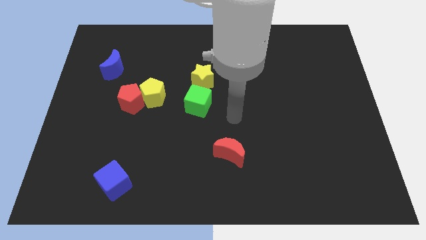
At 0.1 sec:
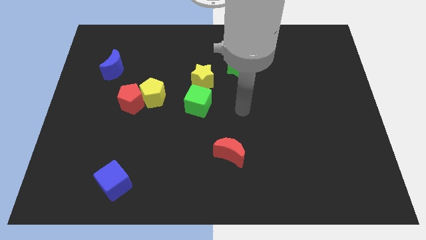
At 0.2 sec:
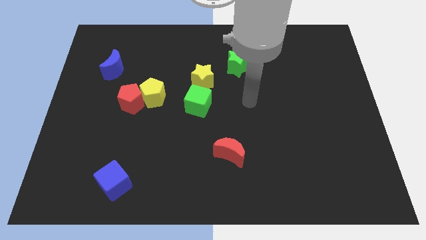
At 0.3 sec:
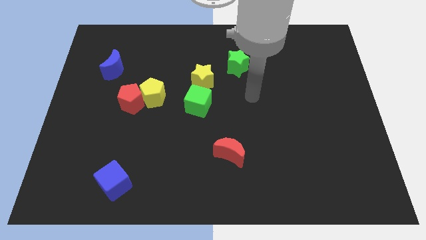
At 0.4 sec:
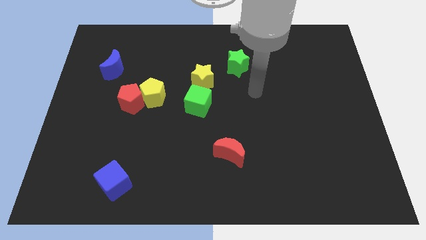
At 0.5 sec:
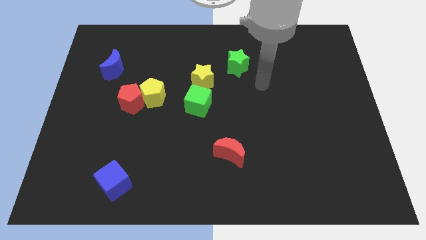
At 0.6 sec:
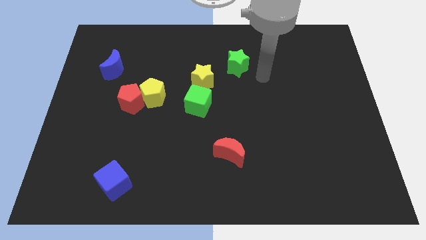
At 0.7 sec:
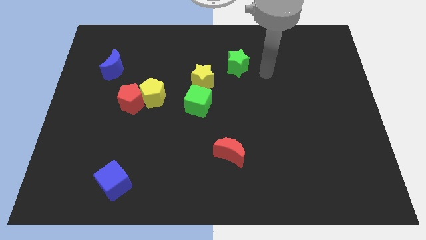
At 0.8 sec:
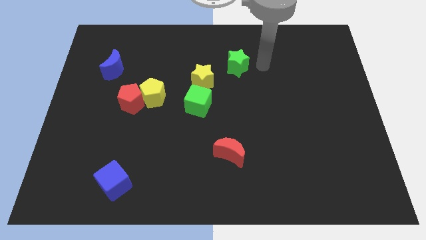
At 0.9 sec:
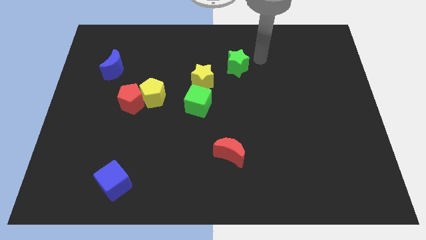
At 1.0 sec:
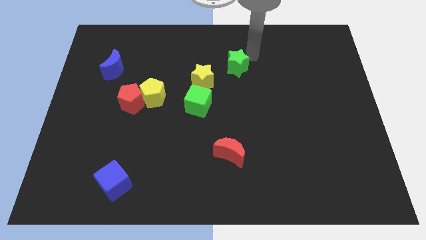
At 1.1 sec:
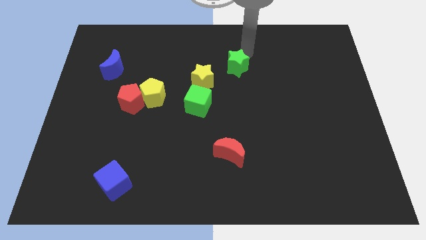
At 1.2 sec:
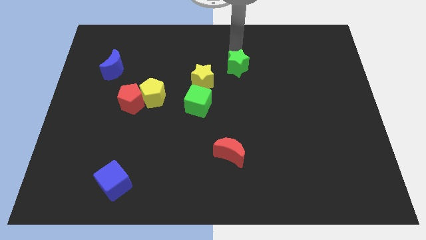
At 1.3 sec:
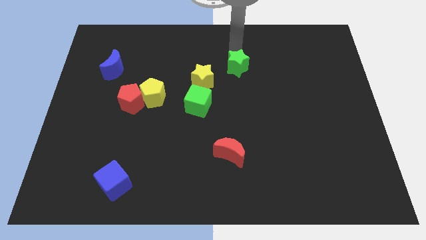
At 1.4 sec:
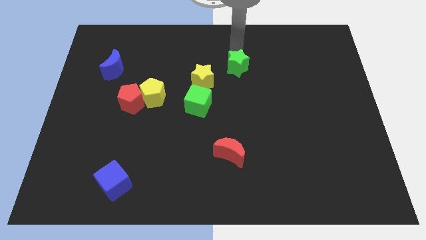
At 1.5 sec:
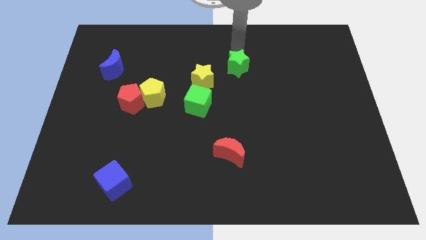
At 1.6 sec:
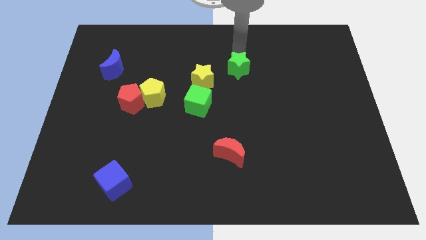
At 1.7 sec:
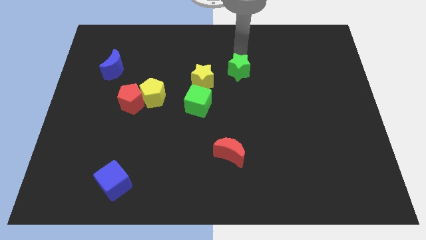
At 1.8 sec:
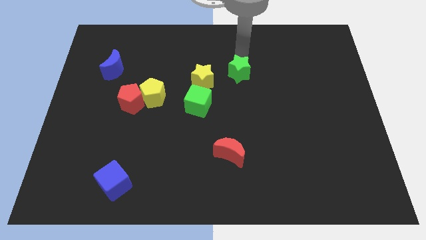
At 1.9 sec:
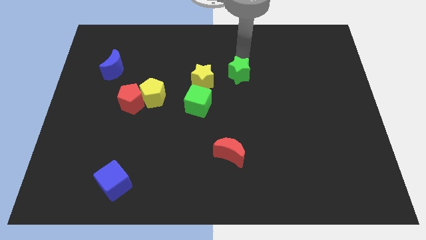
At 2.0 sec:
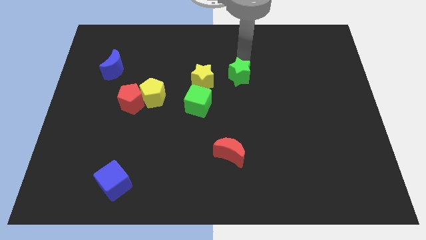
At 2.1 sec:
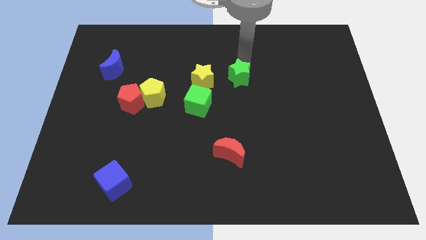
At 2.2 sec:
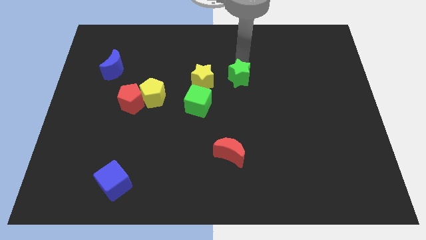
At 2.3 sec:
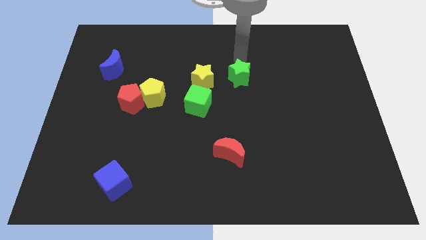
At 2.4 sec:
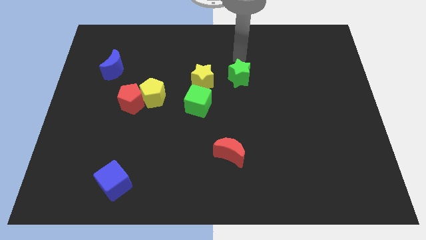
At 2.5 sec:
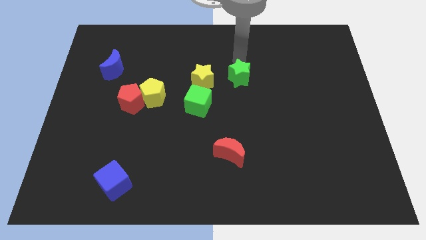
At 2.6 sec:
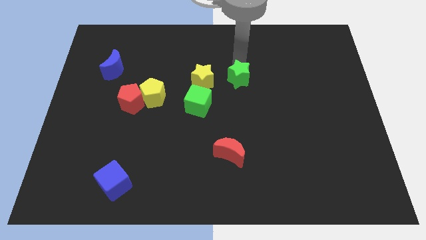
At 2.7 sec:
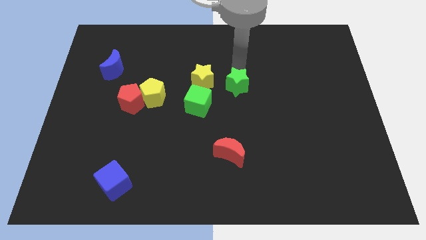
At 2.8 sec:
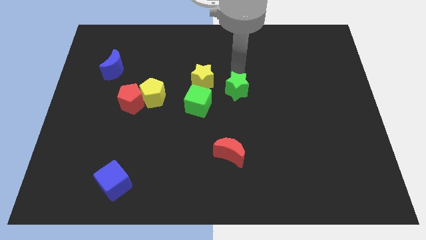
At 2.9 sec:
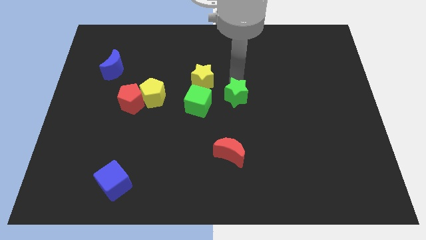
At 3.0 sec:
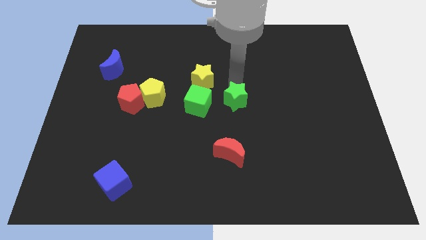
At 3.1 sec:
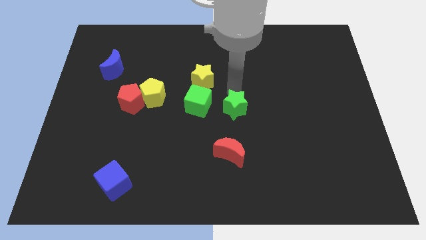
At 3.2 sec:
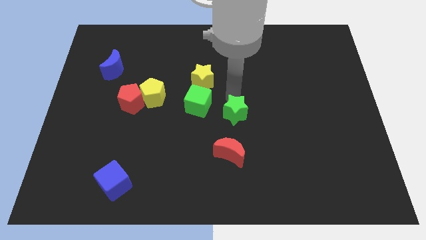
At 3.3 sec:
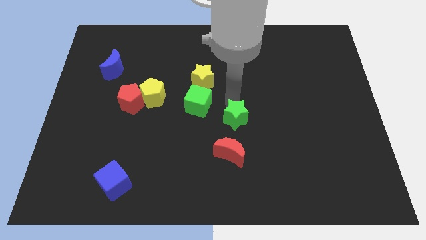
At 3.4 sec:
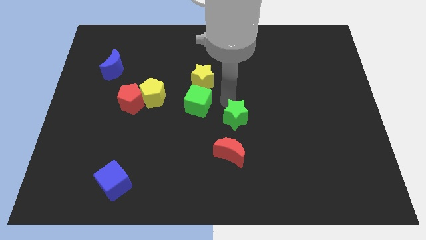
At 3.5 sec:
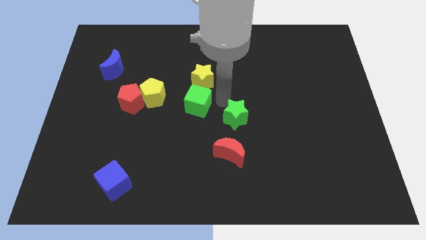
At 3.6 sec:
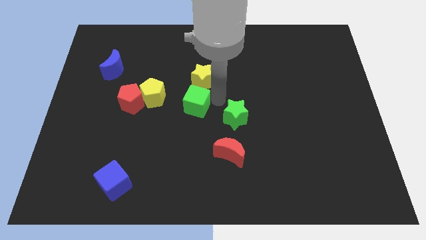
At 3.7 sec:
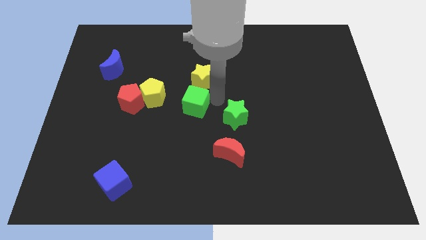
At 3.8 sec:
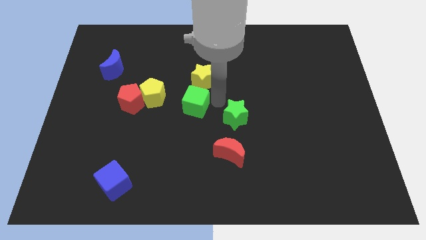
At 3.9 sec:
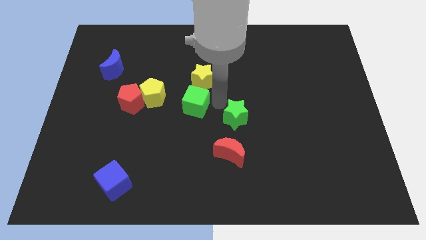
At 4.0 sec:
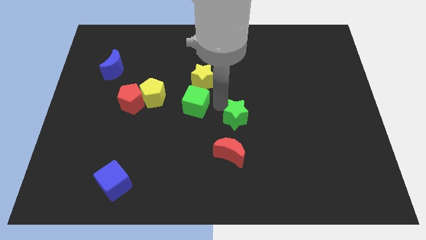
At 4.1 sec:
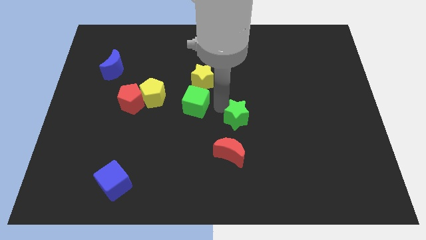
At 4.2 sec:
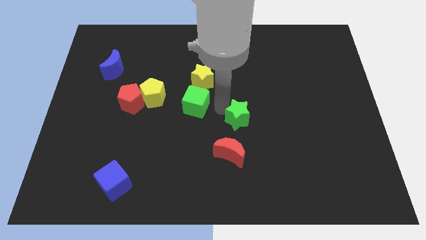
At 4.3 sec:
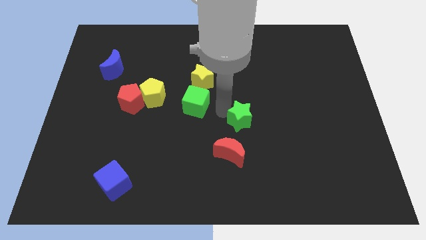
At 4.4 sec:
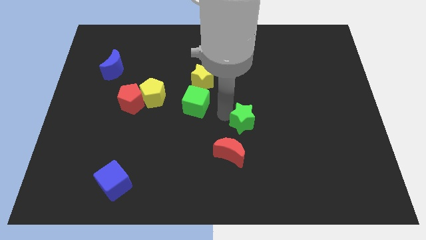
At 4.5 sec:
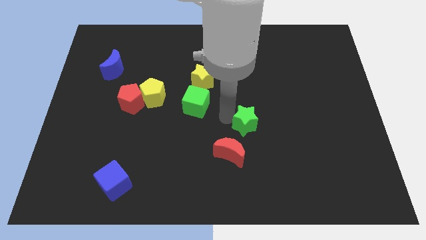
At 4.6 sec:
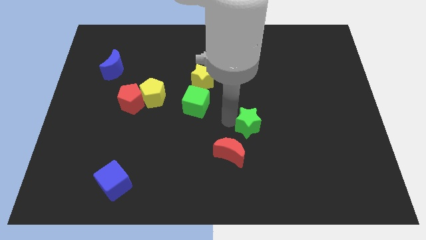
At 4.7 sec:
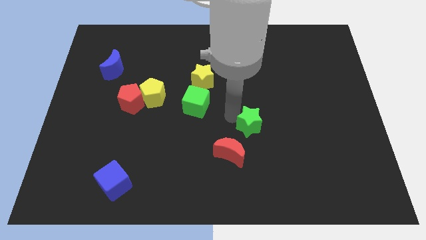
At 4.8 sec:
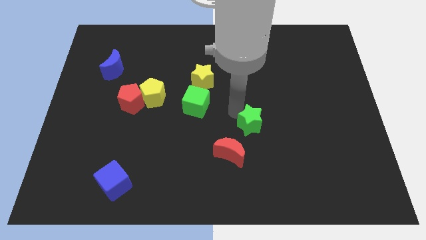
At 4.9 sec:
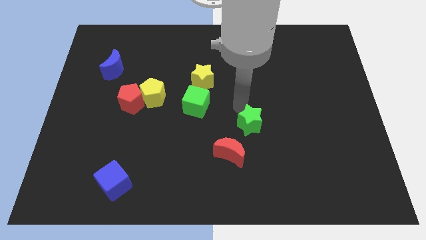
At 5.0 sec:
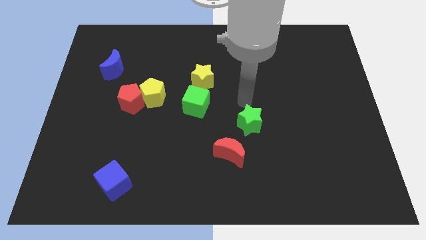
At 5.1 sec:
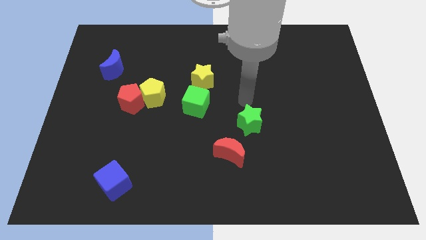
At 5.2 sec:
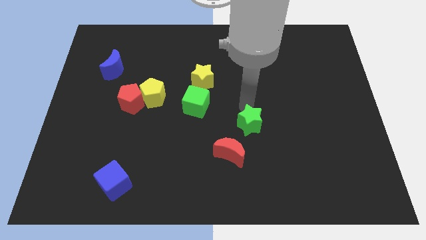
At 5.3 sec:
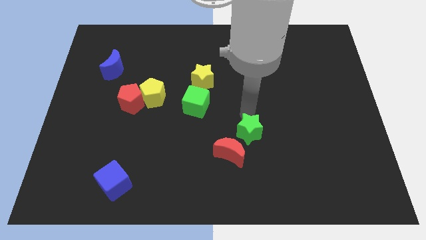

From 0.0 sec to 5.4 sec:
slide the green star down

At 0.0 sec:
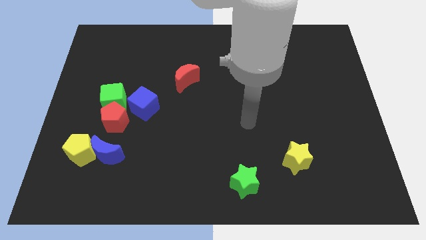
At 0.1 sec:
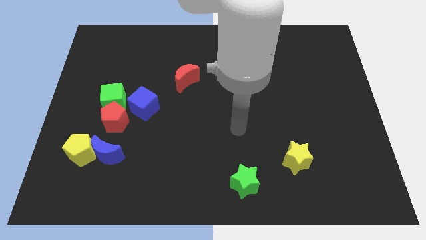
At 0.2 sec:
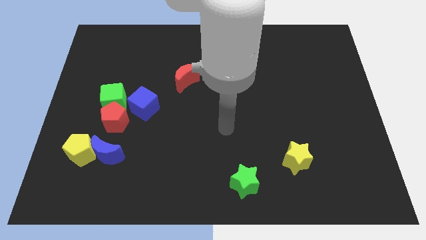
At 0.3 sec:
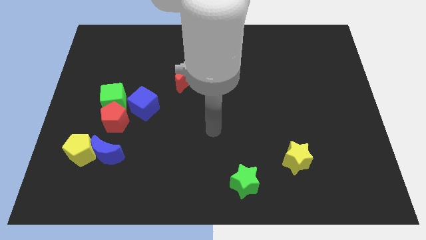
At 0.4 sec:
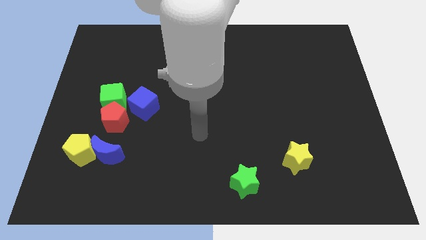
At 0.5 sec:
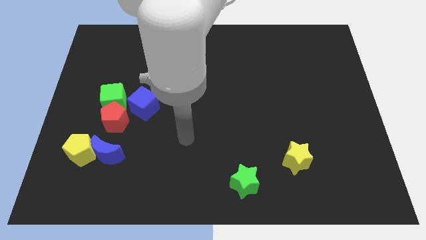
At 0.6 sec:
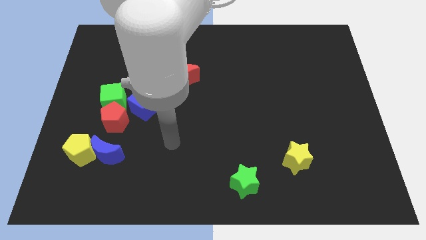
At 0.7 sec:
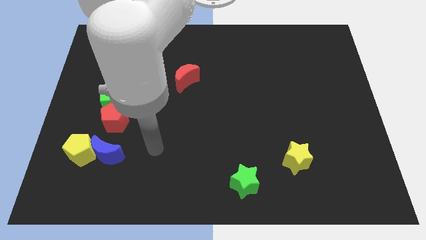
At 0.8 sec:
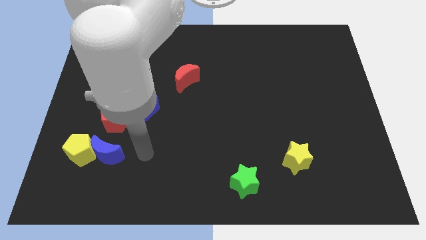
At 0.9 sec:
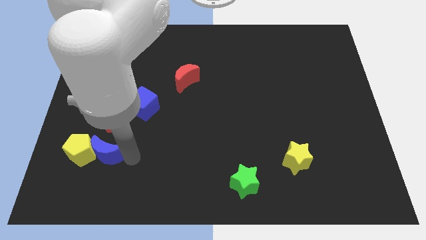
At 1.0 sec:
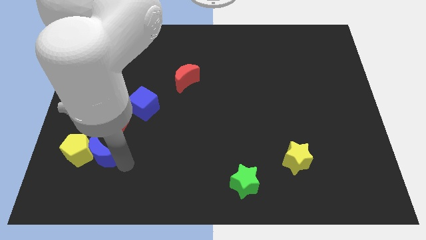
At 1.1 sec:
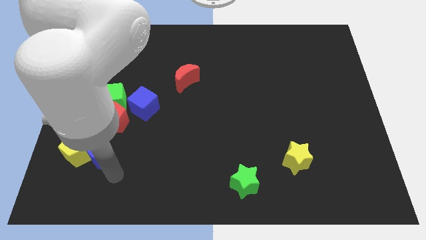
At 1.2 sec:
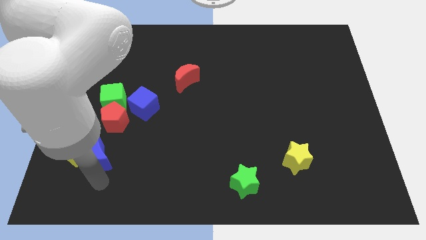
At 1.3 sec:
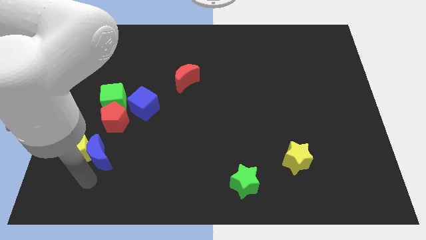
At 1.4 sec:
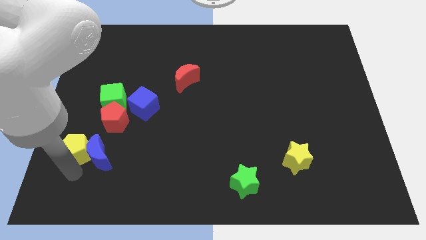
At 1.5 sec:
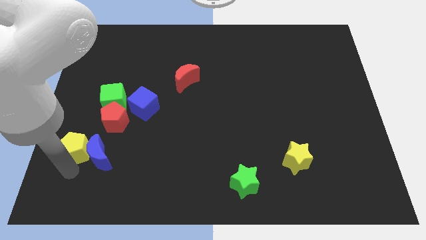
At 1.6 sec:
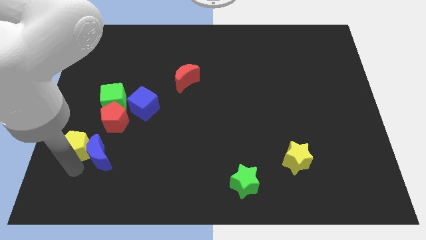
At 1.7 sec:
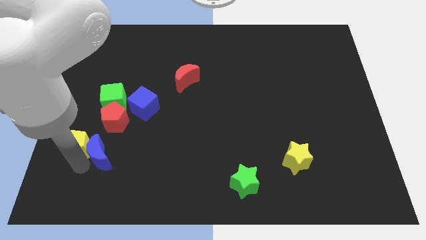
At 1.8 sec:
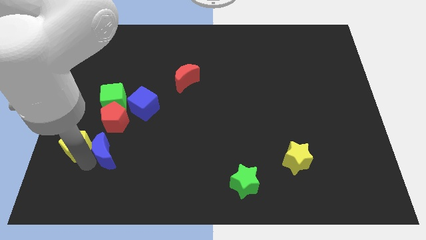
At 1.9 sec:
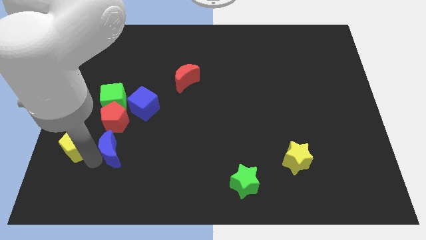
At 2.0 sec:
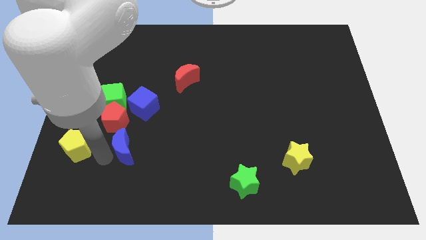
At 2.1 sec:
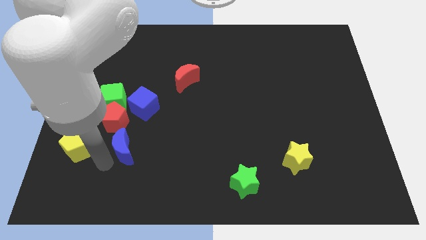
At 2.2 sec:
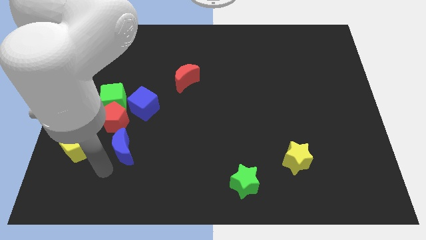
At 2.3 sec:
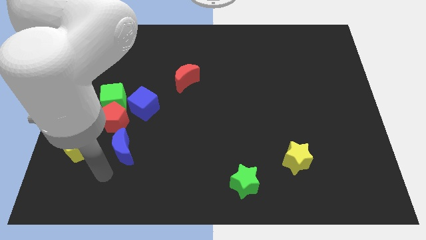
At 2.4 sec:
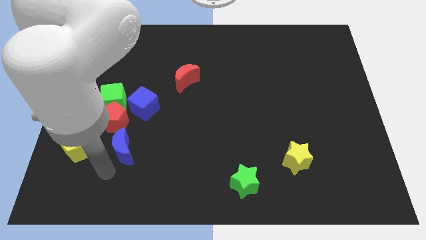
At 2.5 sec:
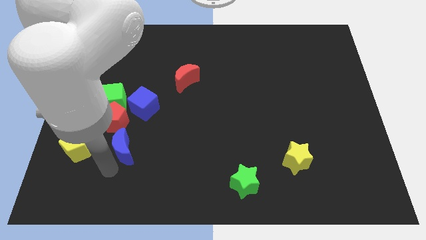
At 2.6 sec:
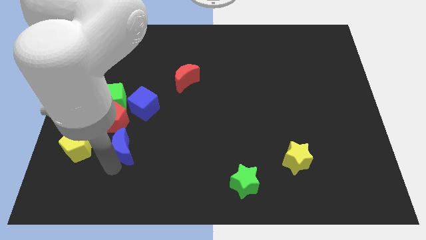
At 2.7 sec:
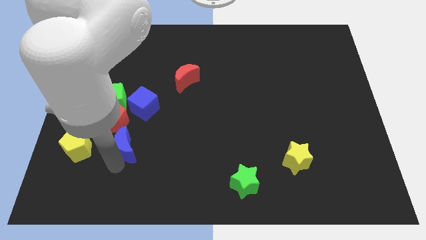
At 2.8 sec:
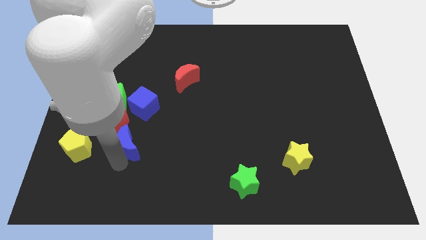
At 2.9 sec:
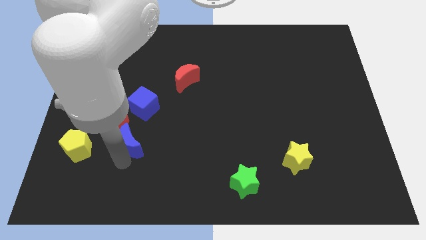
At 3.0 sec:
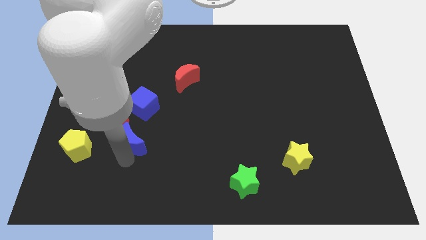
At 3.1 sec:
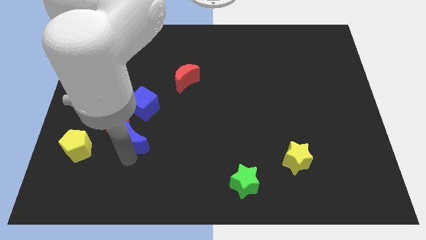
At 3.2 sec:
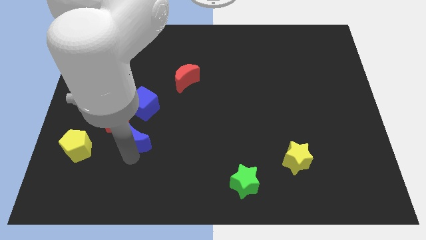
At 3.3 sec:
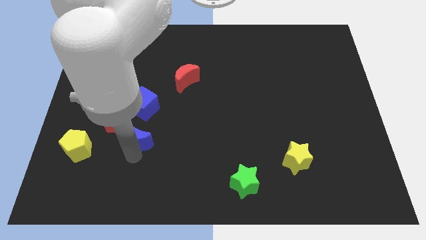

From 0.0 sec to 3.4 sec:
push the blue moon up and right a little bit
